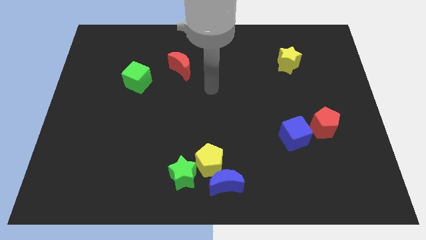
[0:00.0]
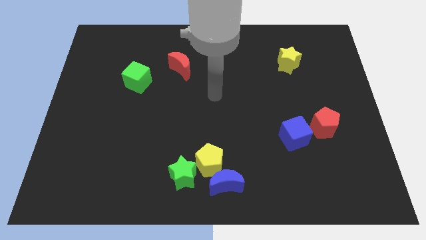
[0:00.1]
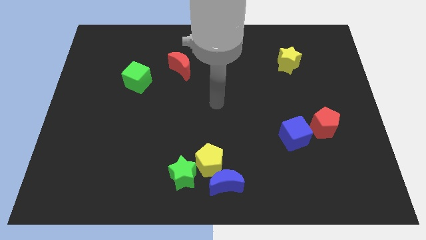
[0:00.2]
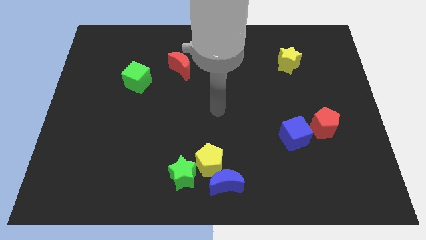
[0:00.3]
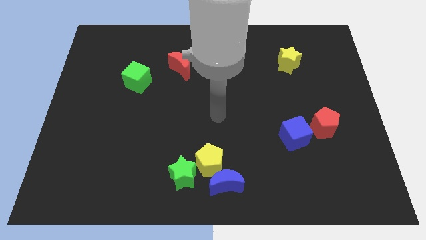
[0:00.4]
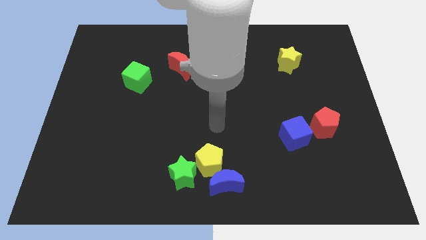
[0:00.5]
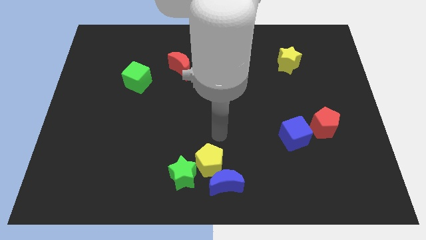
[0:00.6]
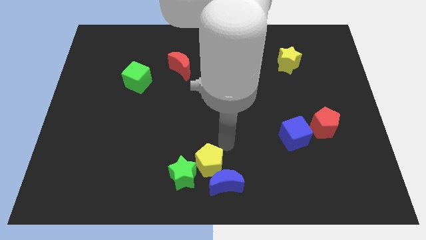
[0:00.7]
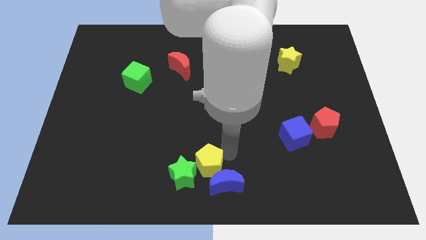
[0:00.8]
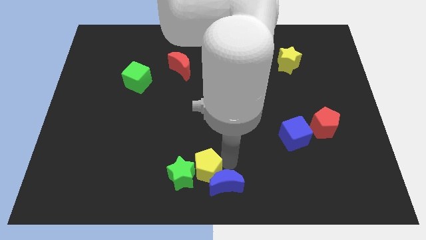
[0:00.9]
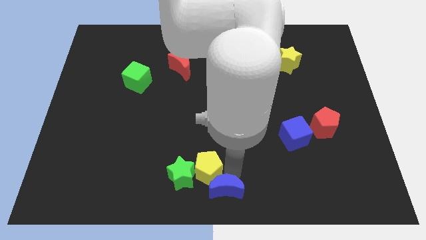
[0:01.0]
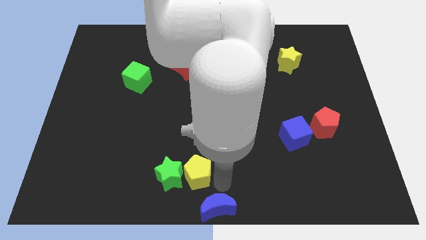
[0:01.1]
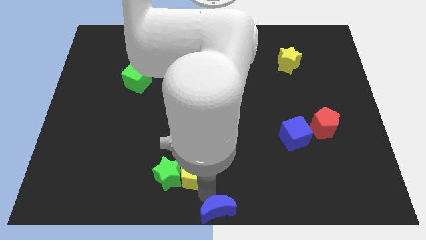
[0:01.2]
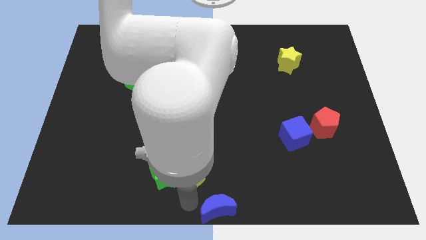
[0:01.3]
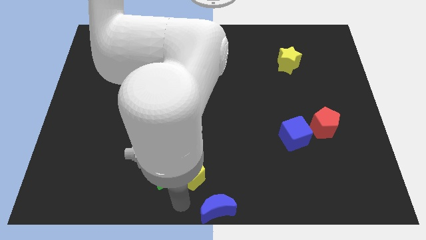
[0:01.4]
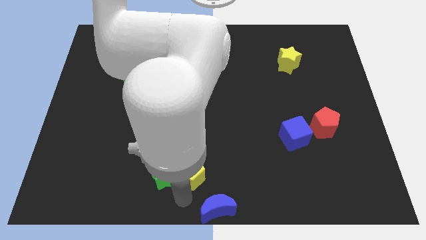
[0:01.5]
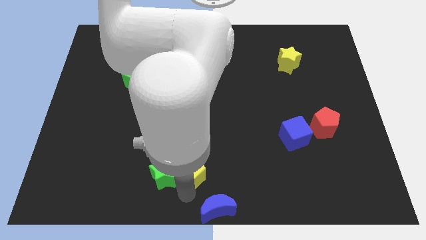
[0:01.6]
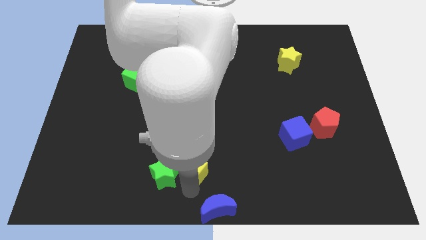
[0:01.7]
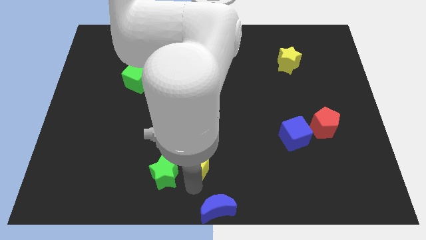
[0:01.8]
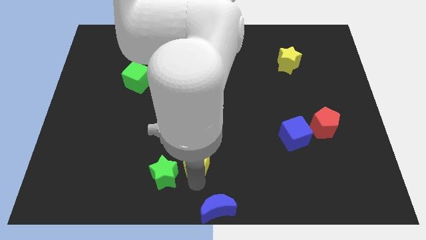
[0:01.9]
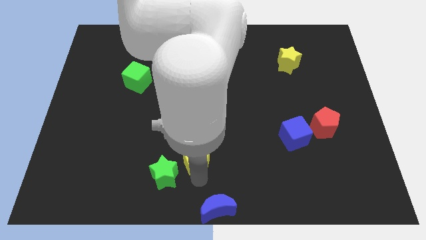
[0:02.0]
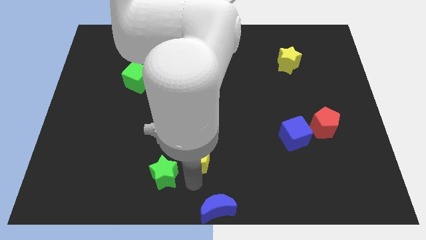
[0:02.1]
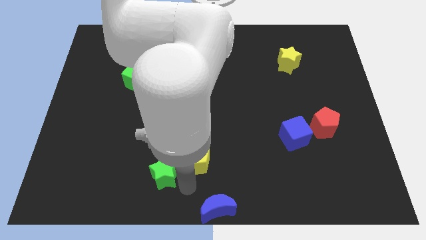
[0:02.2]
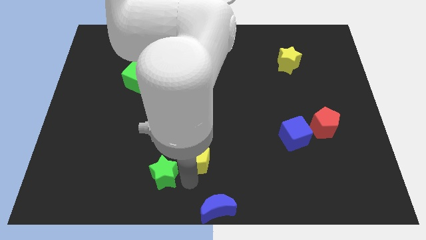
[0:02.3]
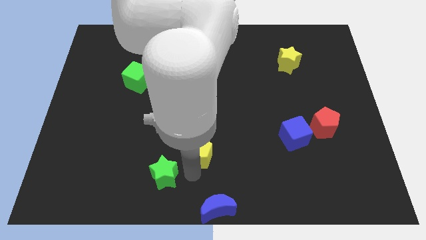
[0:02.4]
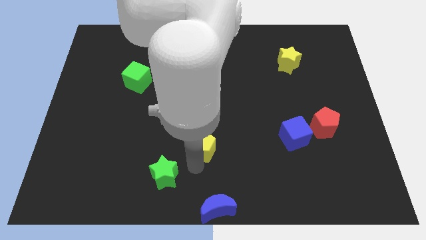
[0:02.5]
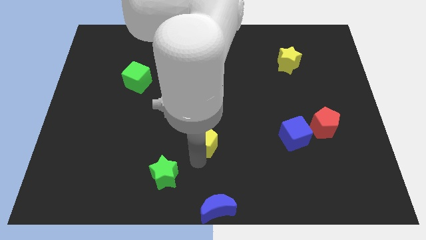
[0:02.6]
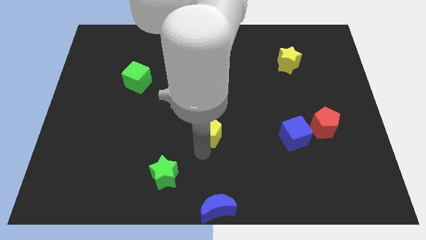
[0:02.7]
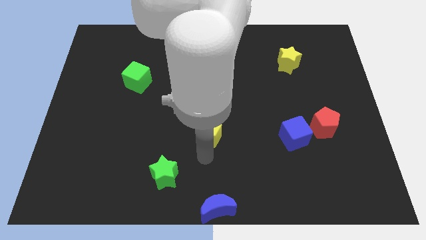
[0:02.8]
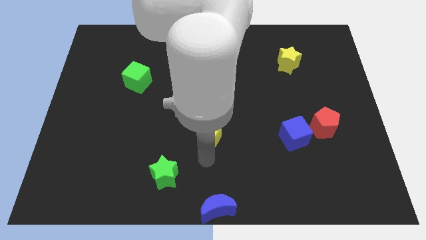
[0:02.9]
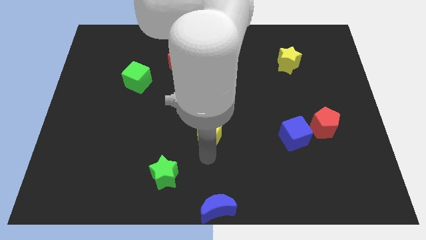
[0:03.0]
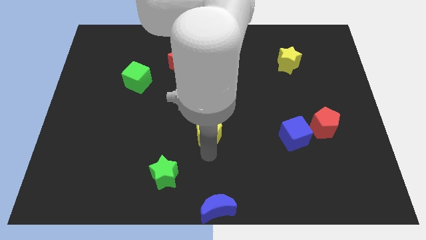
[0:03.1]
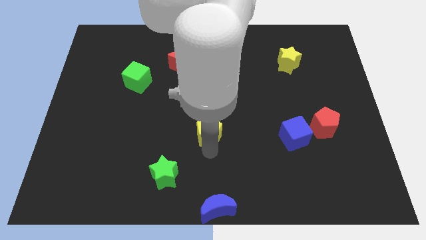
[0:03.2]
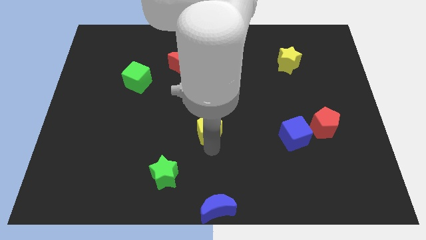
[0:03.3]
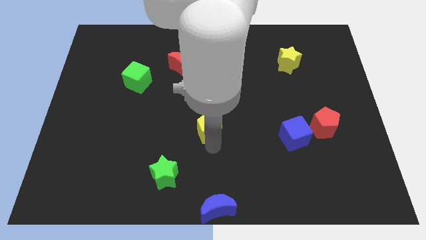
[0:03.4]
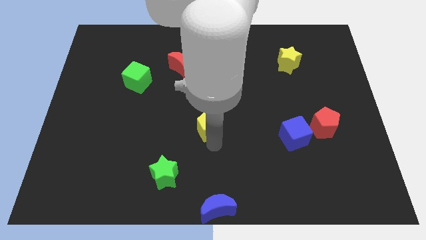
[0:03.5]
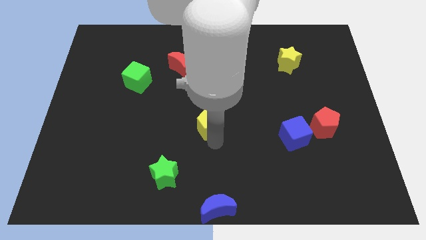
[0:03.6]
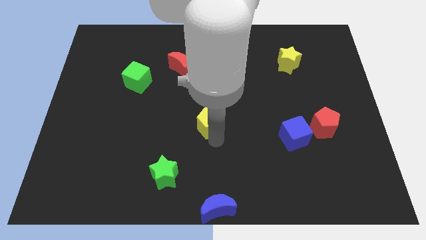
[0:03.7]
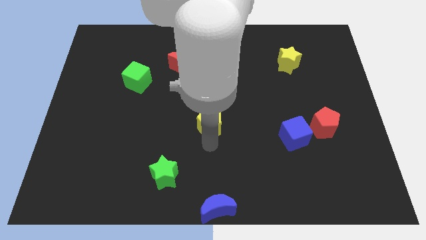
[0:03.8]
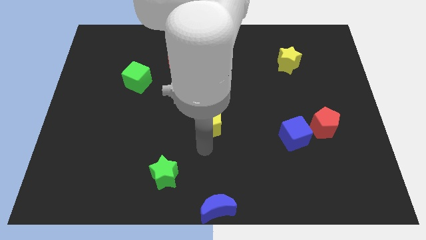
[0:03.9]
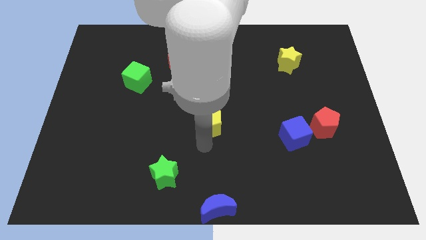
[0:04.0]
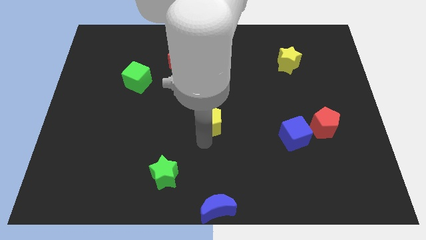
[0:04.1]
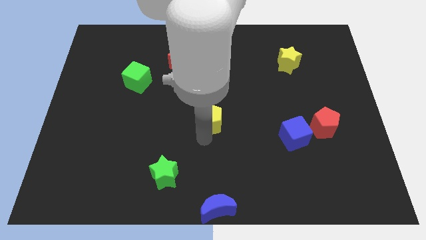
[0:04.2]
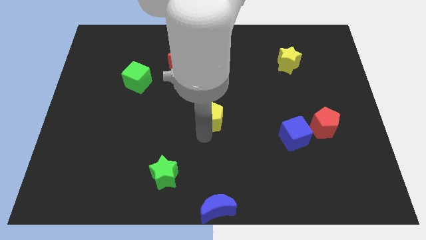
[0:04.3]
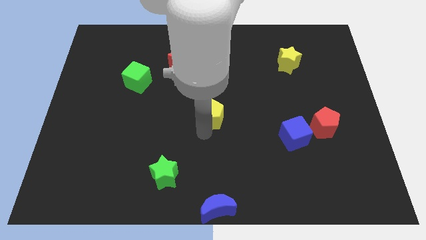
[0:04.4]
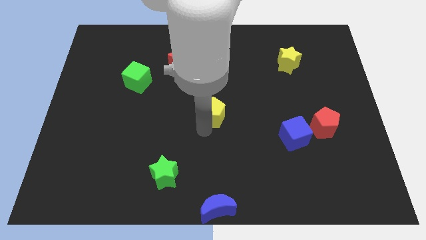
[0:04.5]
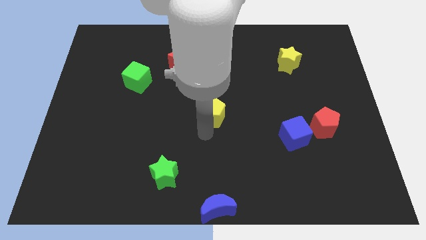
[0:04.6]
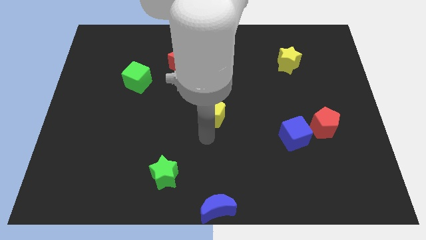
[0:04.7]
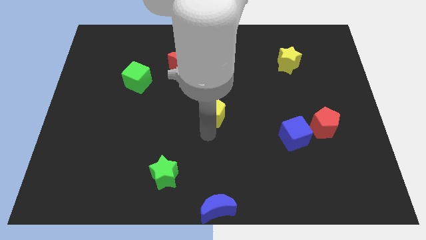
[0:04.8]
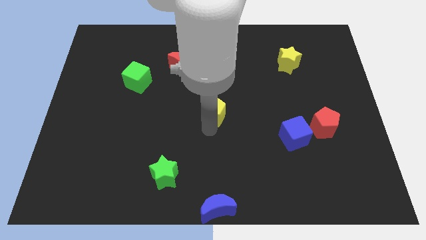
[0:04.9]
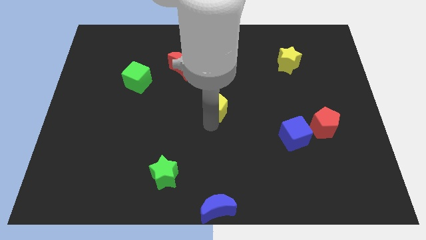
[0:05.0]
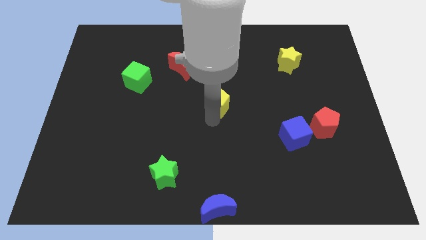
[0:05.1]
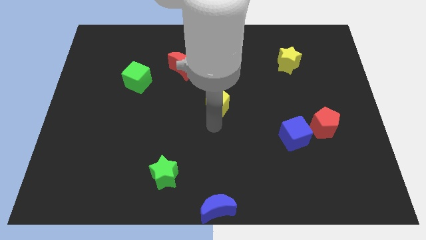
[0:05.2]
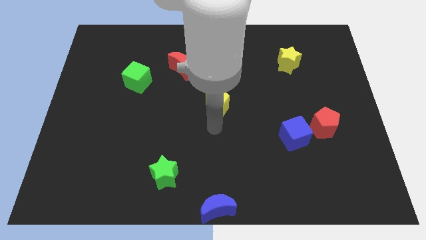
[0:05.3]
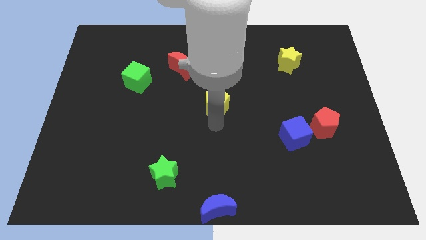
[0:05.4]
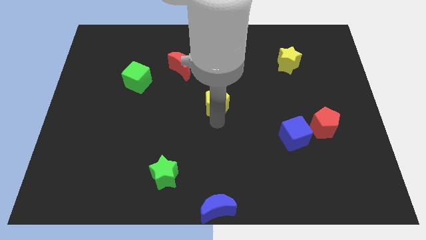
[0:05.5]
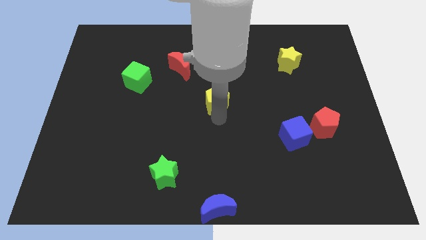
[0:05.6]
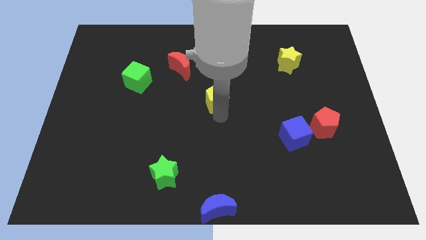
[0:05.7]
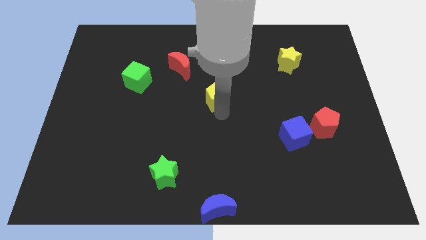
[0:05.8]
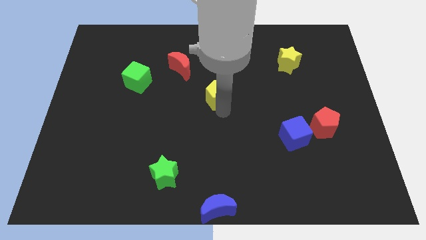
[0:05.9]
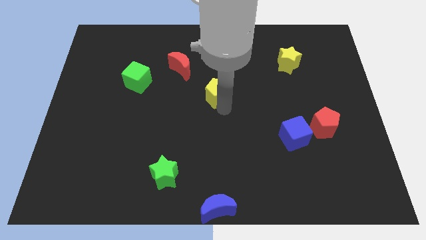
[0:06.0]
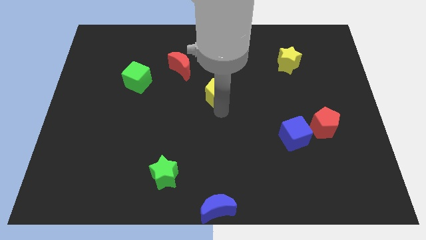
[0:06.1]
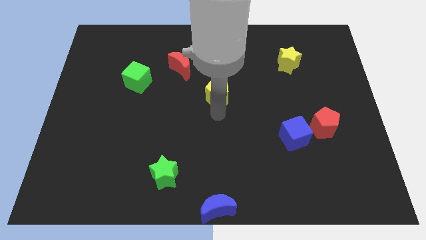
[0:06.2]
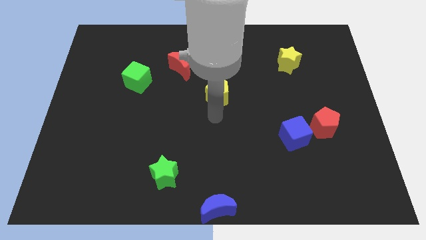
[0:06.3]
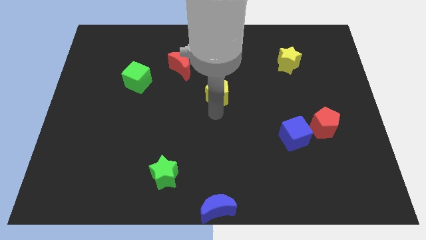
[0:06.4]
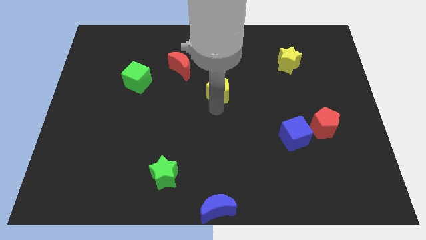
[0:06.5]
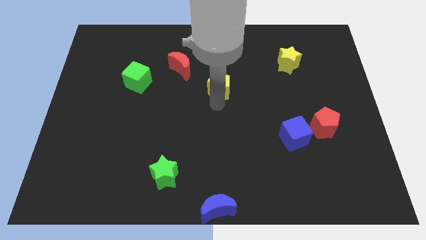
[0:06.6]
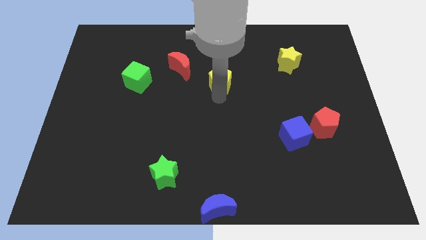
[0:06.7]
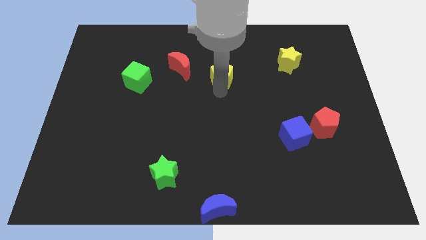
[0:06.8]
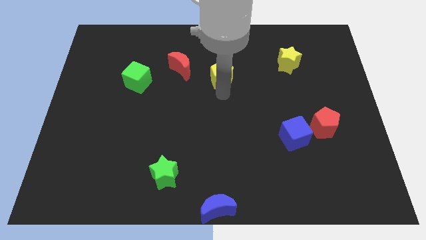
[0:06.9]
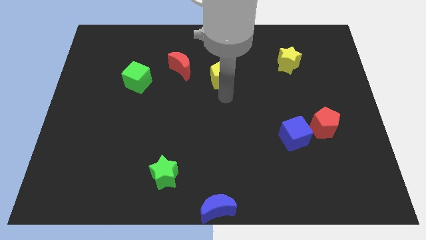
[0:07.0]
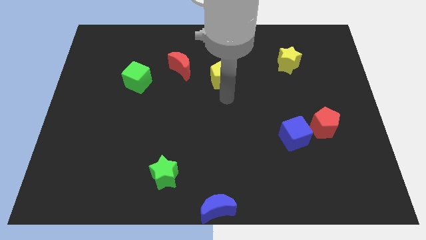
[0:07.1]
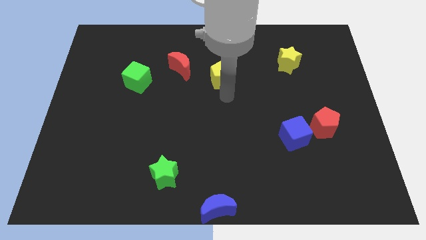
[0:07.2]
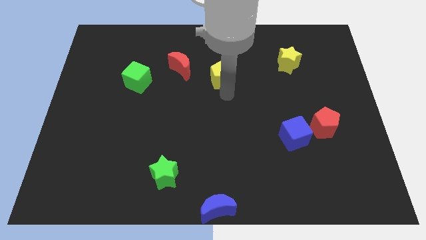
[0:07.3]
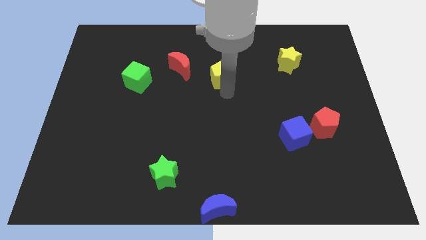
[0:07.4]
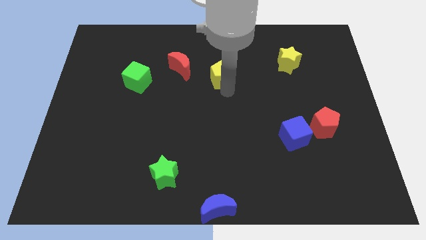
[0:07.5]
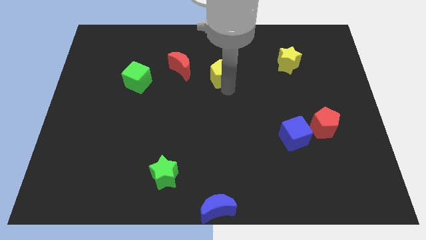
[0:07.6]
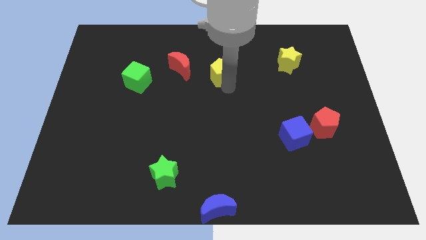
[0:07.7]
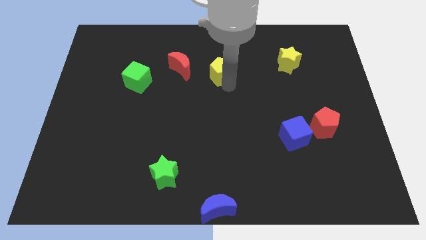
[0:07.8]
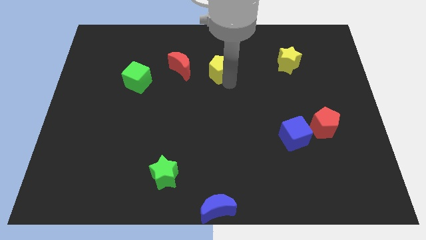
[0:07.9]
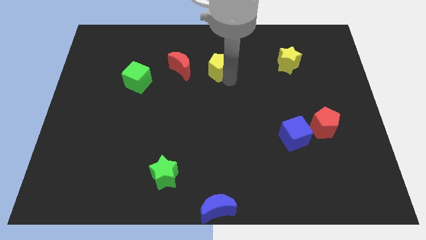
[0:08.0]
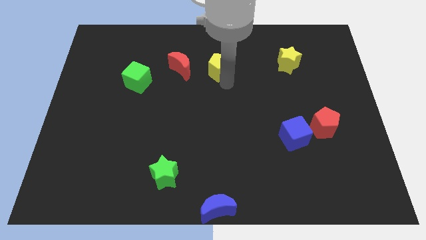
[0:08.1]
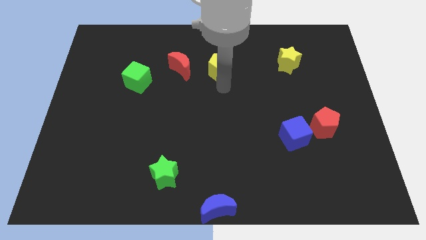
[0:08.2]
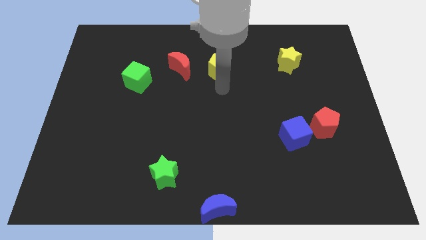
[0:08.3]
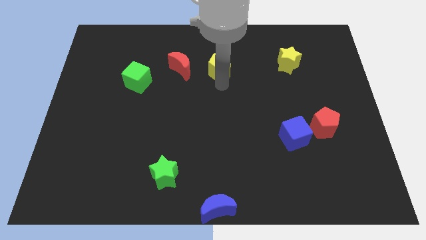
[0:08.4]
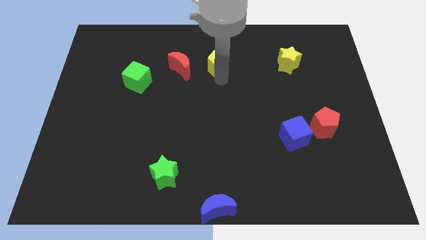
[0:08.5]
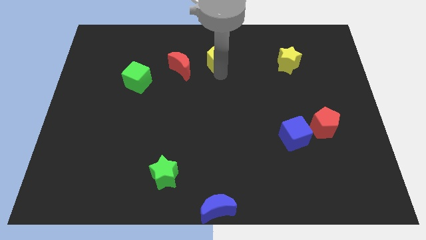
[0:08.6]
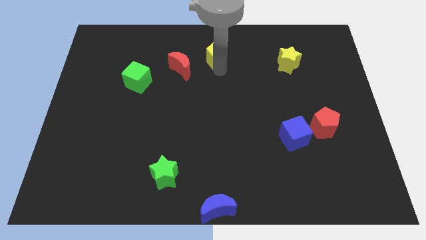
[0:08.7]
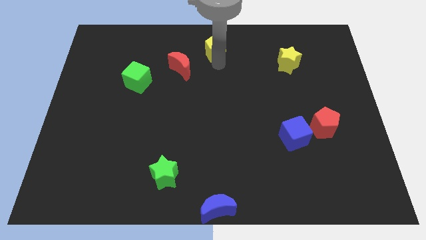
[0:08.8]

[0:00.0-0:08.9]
move the yellow pentagon to the top side
